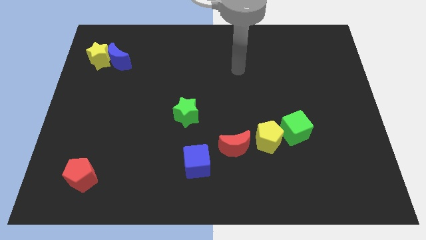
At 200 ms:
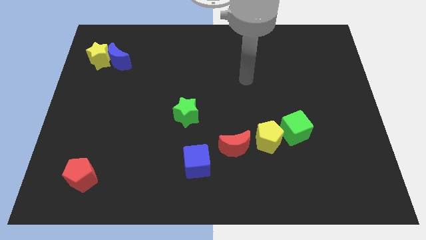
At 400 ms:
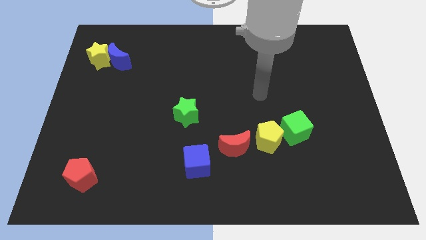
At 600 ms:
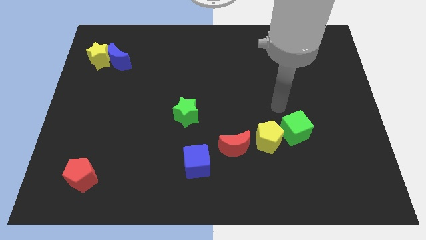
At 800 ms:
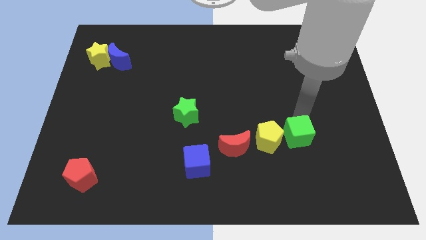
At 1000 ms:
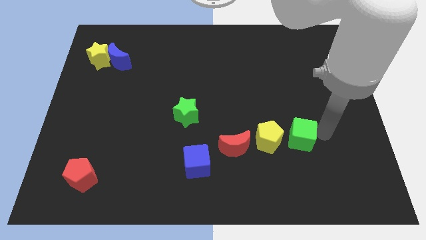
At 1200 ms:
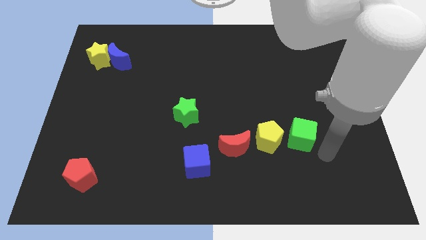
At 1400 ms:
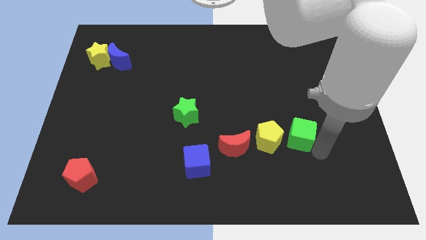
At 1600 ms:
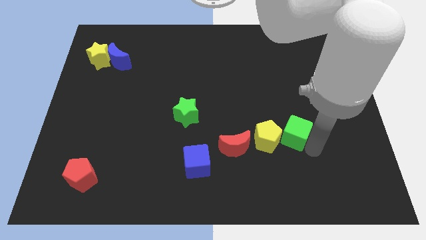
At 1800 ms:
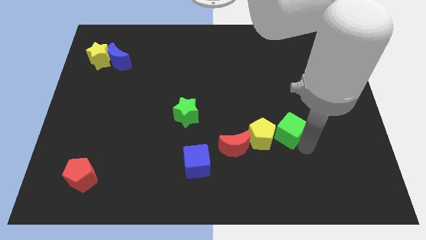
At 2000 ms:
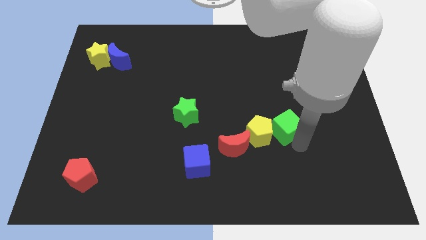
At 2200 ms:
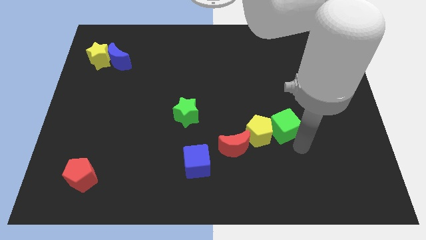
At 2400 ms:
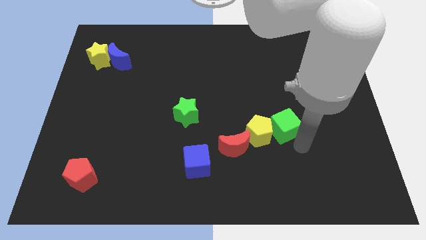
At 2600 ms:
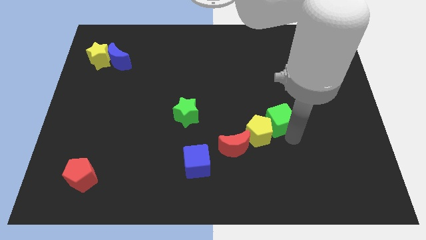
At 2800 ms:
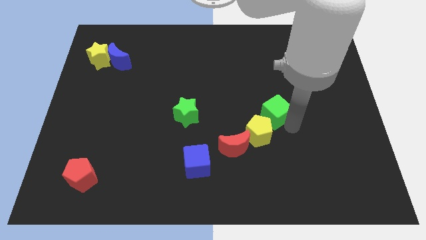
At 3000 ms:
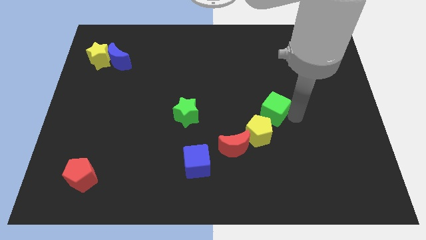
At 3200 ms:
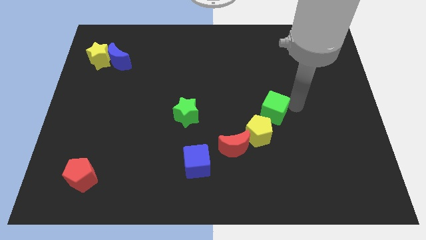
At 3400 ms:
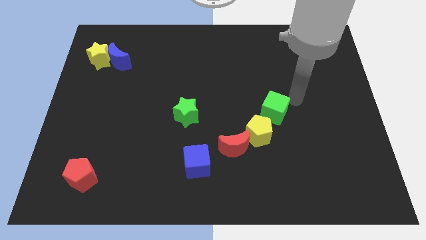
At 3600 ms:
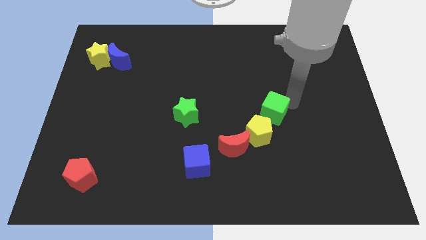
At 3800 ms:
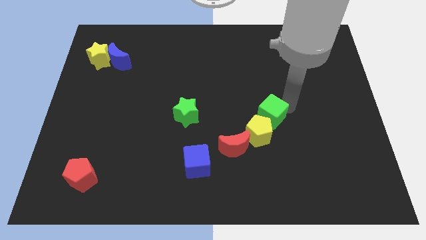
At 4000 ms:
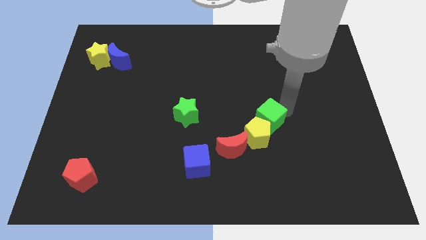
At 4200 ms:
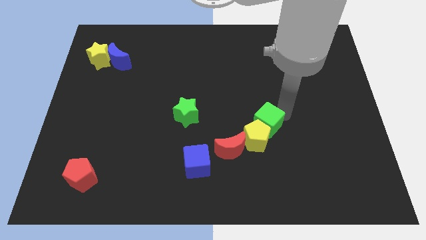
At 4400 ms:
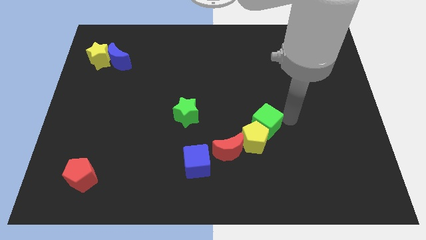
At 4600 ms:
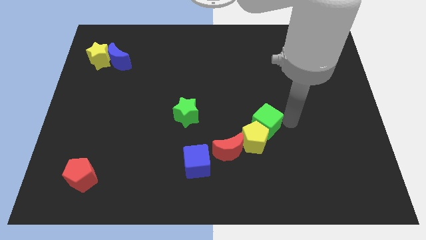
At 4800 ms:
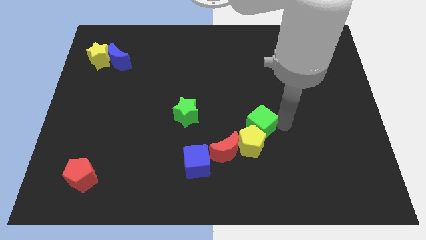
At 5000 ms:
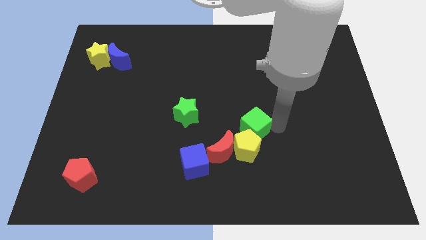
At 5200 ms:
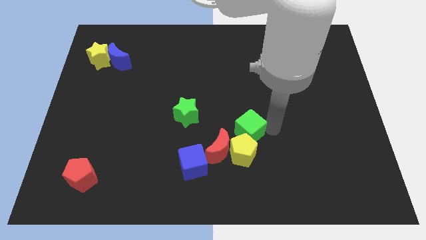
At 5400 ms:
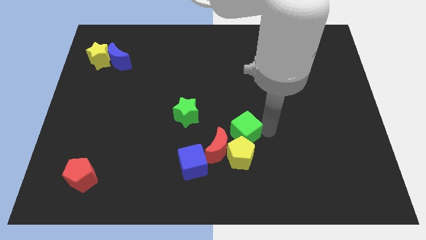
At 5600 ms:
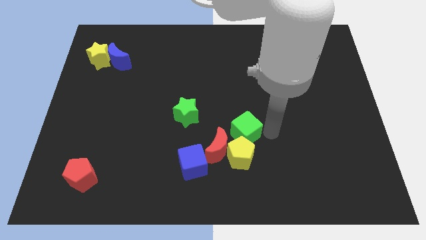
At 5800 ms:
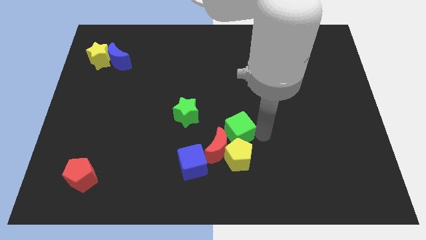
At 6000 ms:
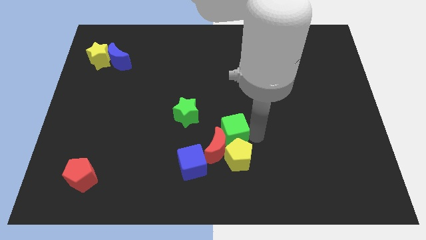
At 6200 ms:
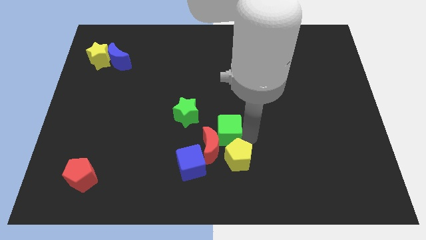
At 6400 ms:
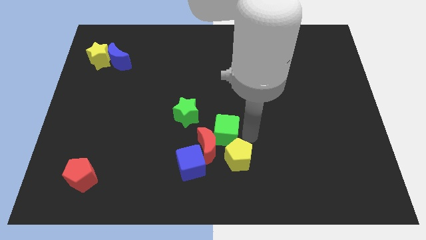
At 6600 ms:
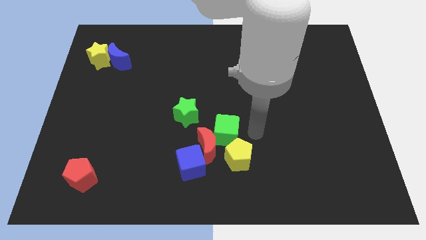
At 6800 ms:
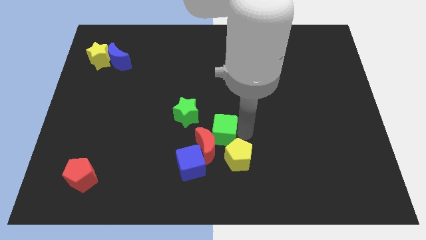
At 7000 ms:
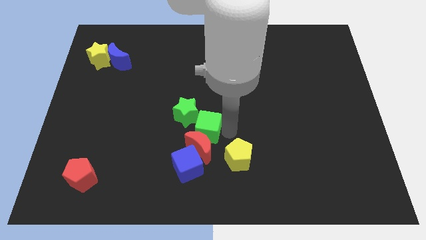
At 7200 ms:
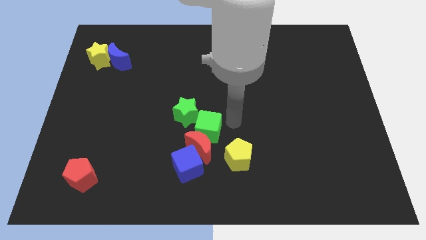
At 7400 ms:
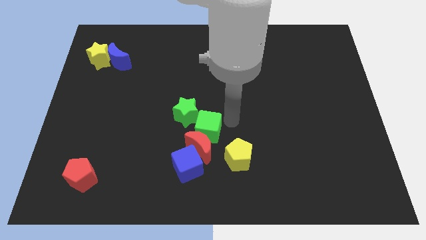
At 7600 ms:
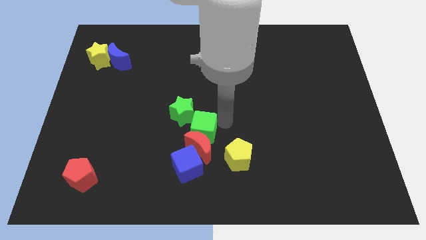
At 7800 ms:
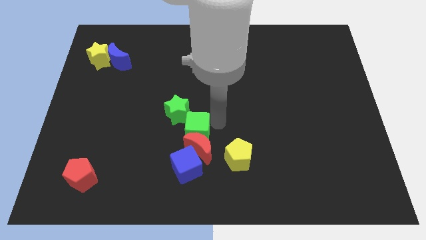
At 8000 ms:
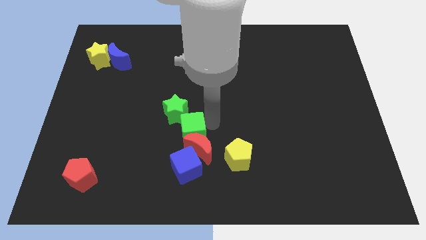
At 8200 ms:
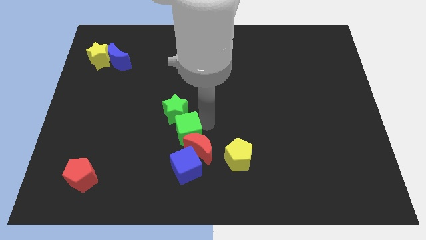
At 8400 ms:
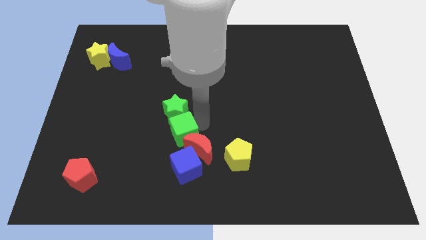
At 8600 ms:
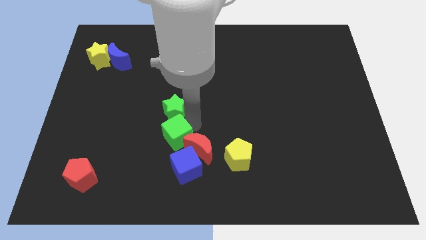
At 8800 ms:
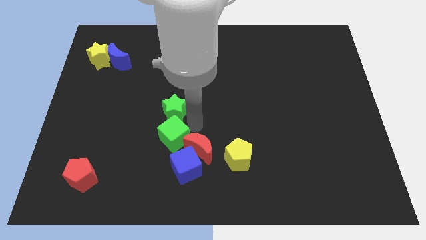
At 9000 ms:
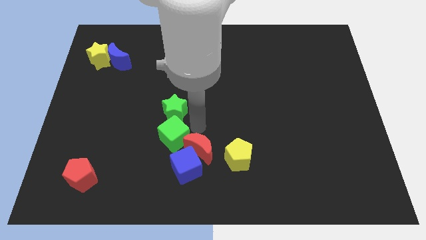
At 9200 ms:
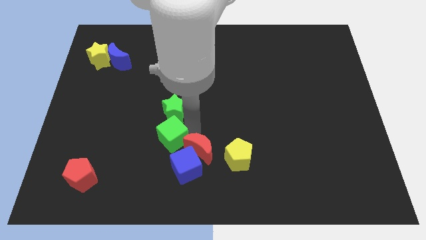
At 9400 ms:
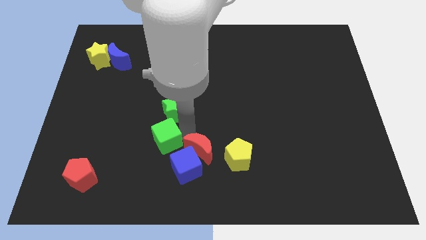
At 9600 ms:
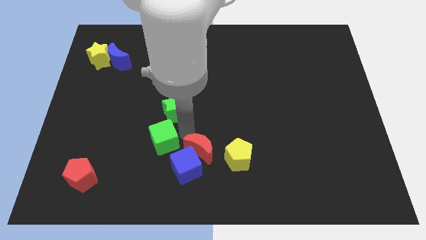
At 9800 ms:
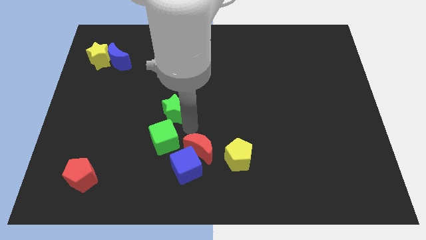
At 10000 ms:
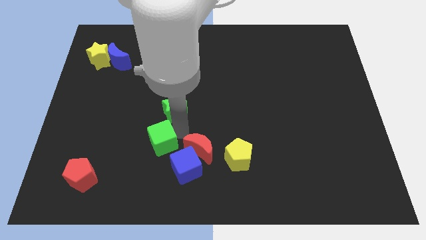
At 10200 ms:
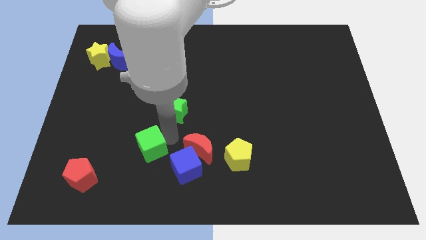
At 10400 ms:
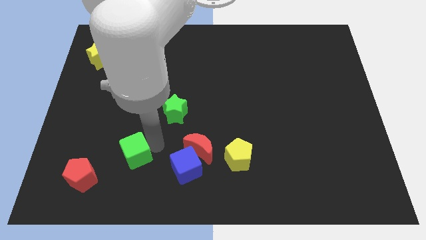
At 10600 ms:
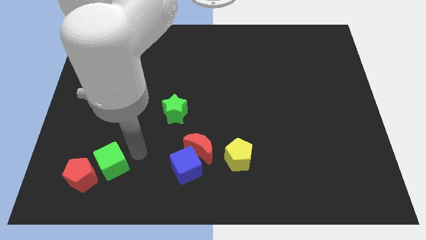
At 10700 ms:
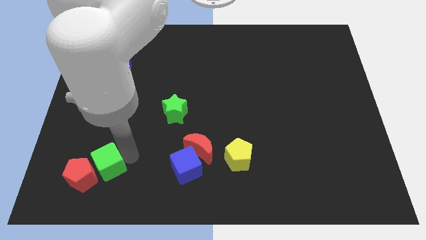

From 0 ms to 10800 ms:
put the green cube close to the red pentagon

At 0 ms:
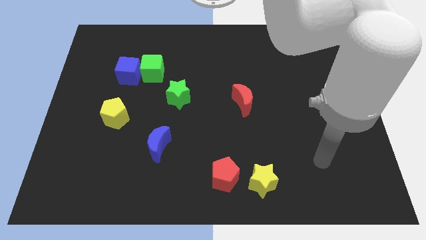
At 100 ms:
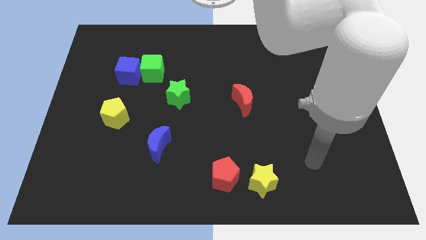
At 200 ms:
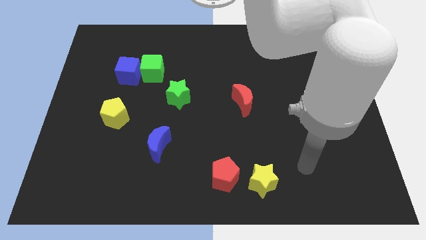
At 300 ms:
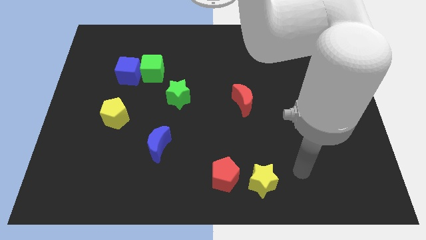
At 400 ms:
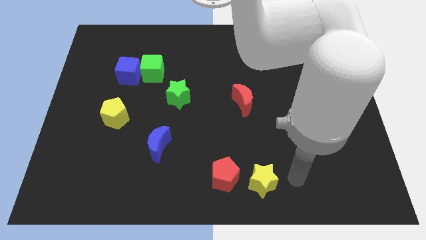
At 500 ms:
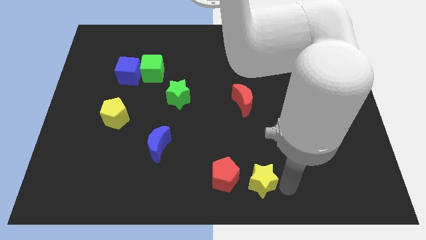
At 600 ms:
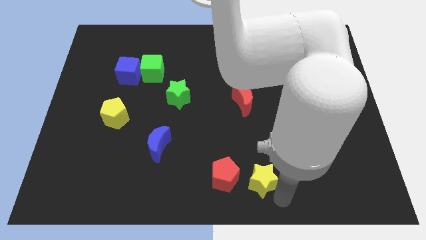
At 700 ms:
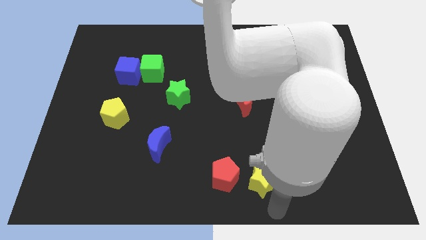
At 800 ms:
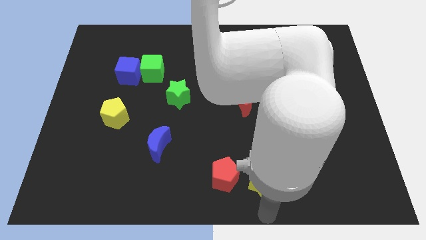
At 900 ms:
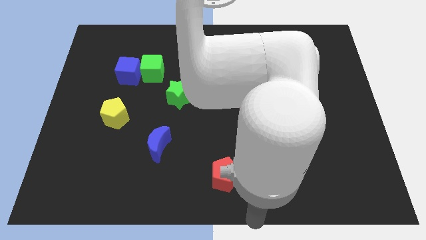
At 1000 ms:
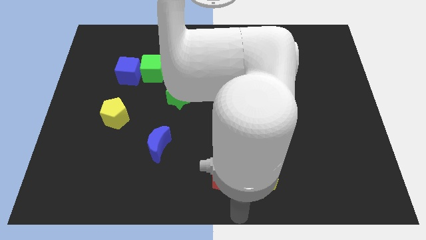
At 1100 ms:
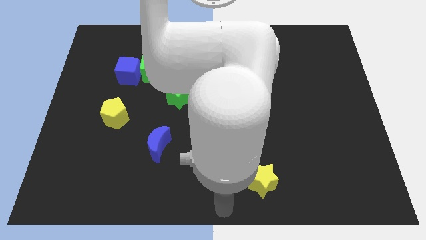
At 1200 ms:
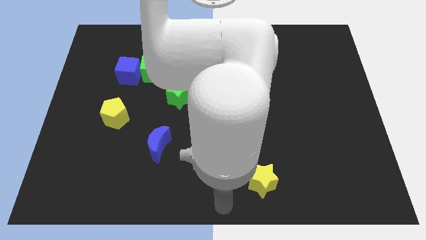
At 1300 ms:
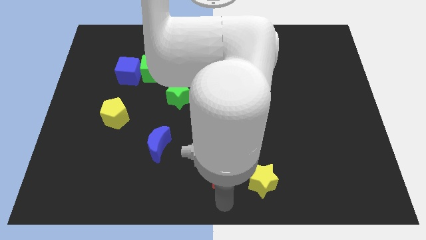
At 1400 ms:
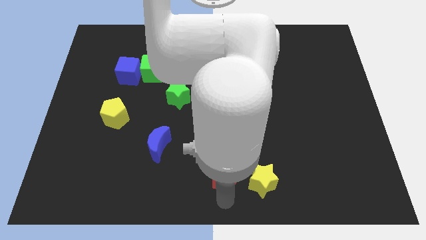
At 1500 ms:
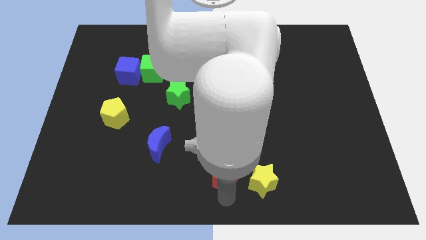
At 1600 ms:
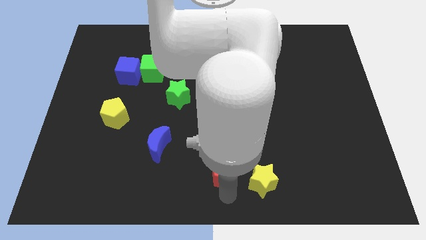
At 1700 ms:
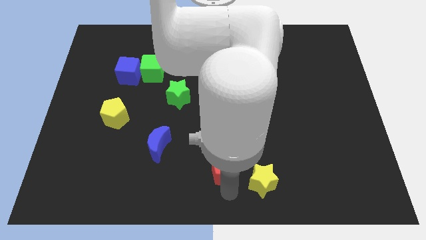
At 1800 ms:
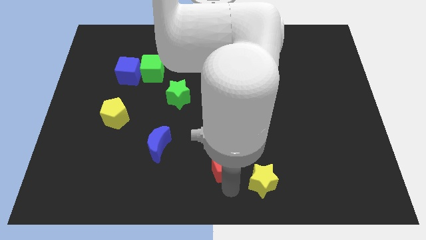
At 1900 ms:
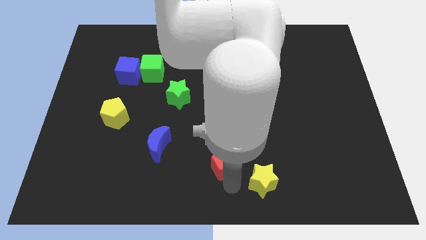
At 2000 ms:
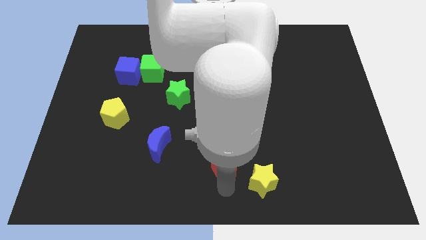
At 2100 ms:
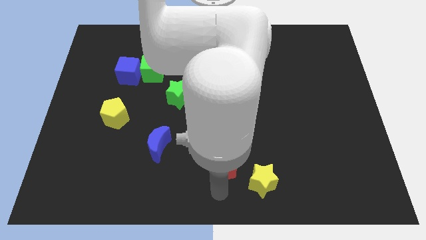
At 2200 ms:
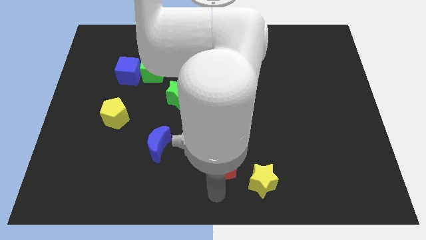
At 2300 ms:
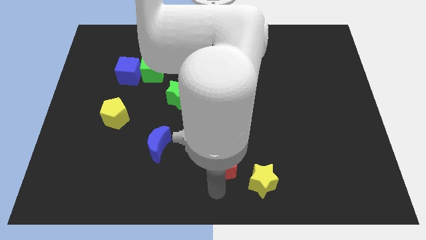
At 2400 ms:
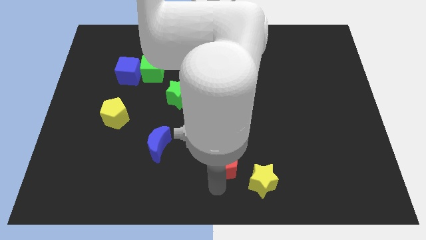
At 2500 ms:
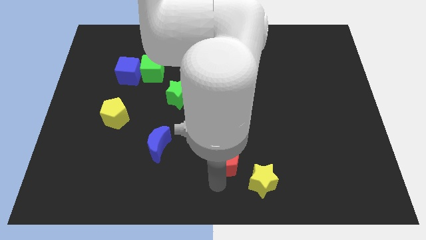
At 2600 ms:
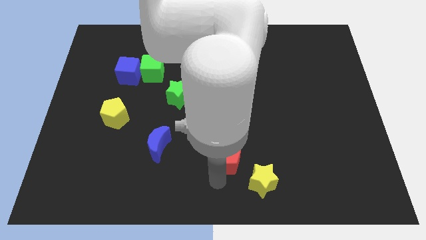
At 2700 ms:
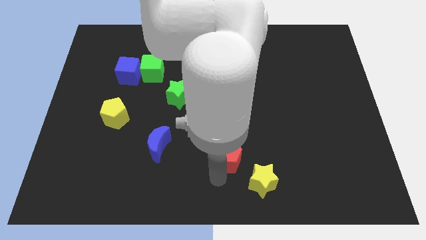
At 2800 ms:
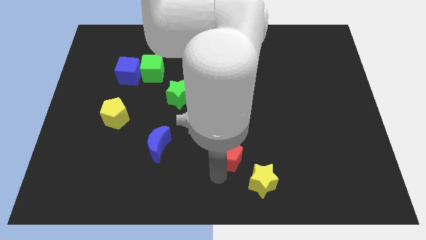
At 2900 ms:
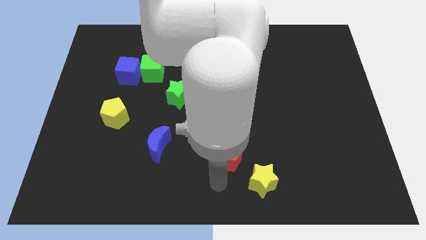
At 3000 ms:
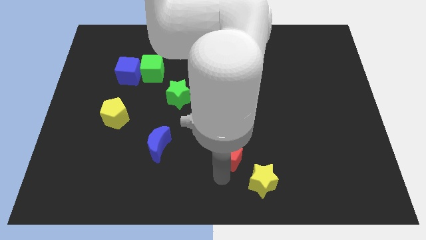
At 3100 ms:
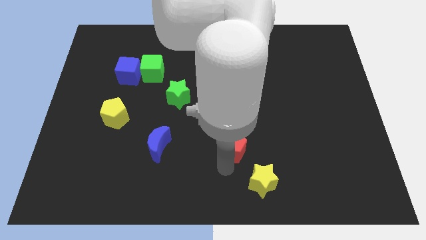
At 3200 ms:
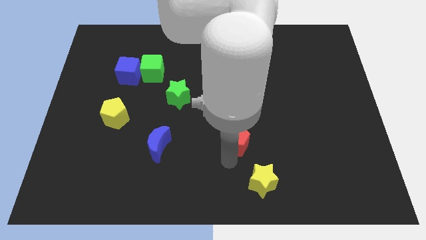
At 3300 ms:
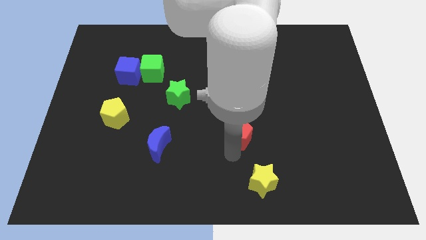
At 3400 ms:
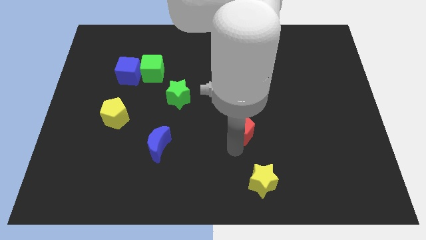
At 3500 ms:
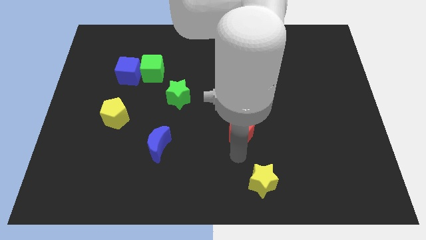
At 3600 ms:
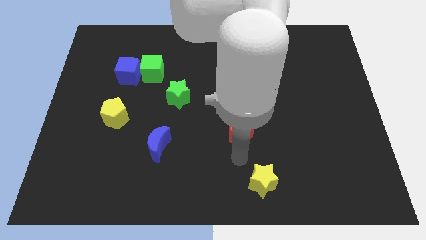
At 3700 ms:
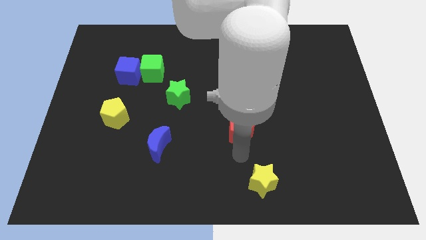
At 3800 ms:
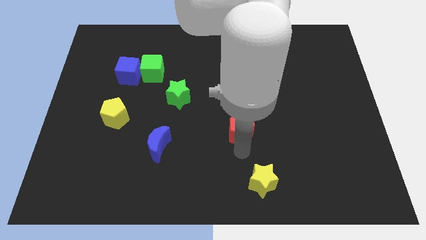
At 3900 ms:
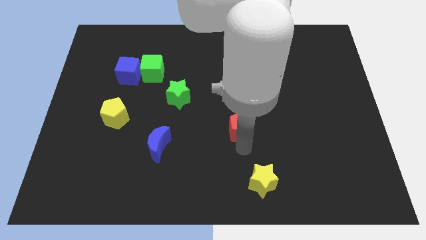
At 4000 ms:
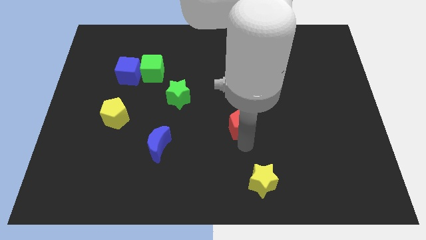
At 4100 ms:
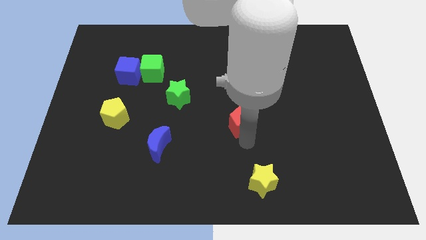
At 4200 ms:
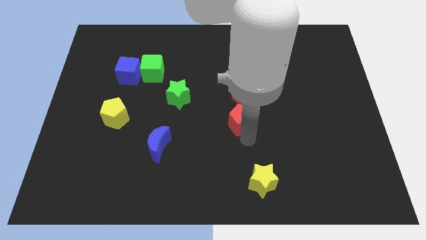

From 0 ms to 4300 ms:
put the red pentagon to the red moon
